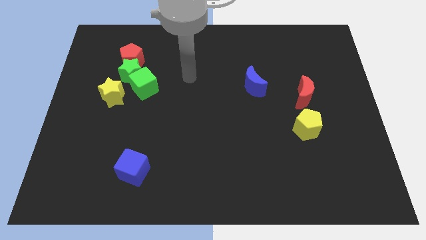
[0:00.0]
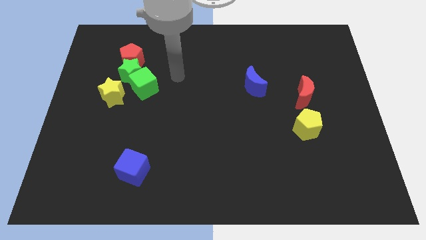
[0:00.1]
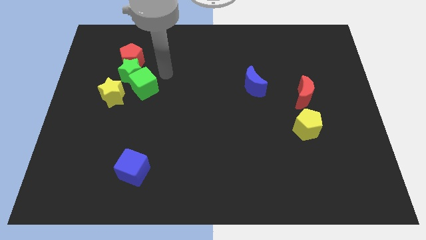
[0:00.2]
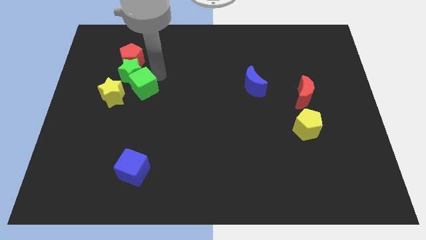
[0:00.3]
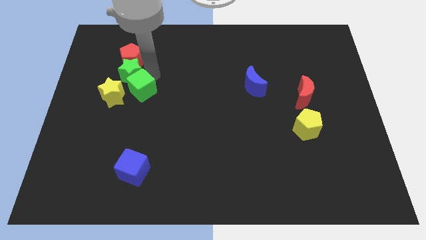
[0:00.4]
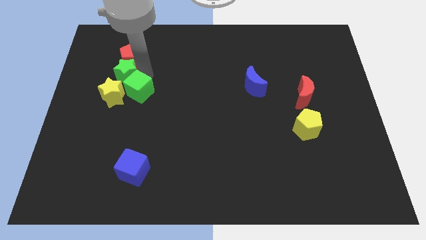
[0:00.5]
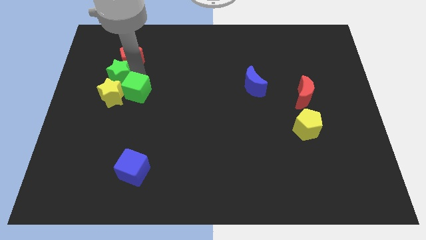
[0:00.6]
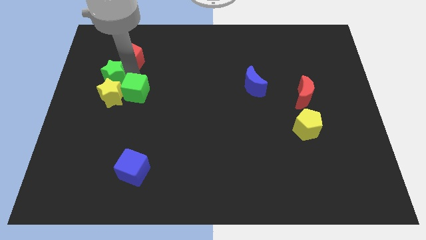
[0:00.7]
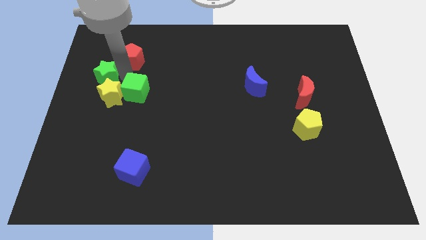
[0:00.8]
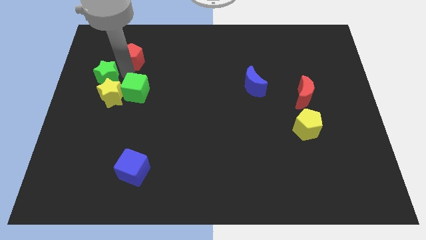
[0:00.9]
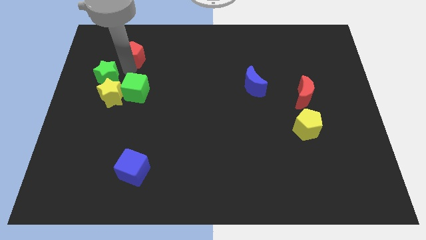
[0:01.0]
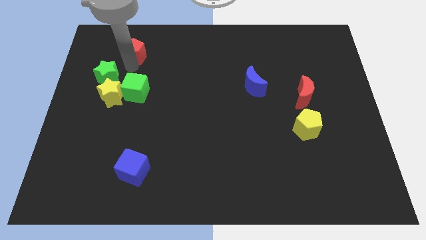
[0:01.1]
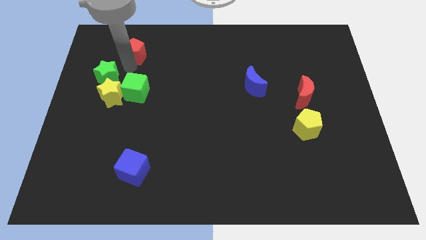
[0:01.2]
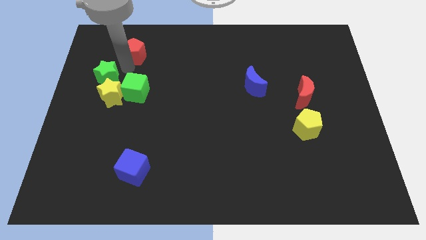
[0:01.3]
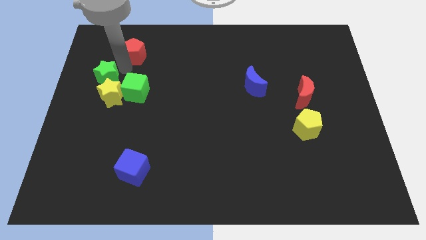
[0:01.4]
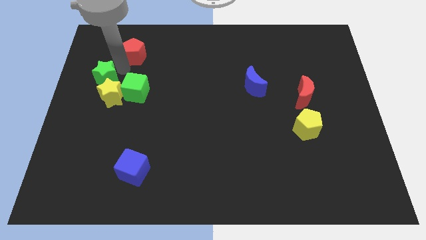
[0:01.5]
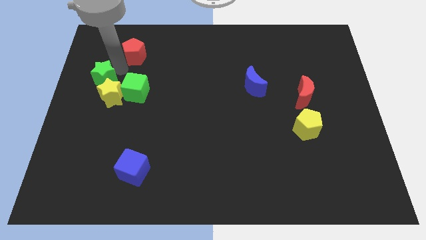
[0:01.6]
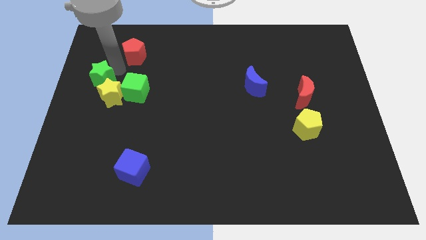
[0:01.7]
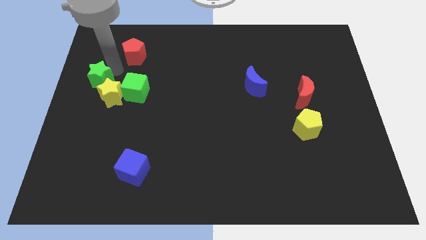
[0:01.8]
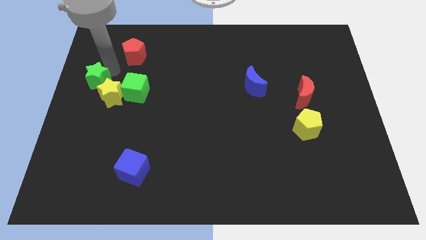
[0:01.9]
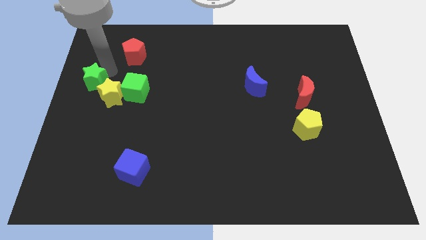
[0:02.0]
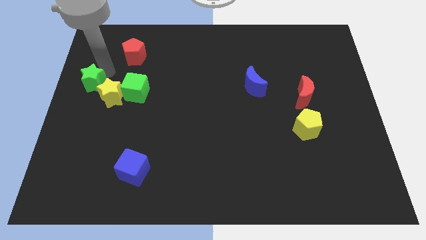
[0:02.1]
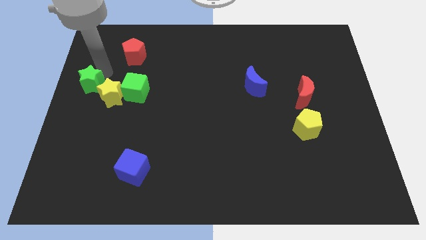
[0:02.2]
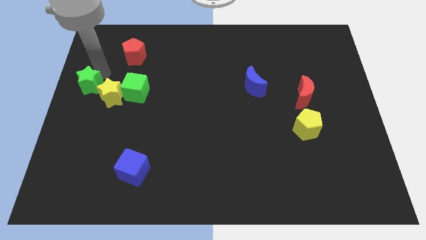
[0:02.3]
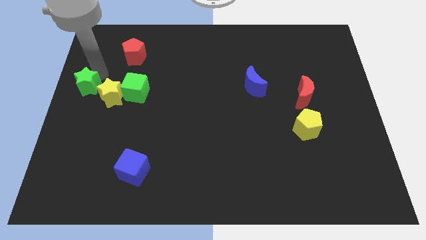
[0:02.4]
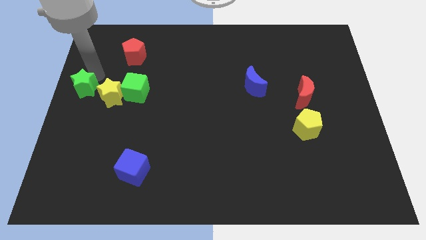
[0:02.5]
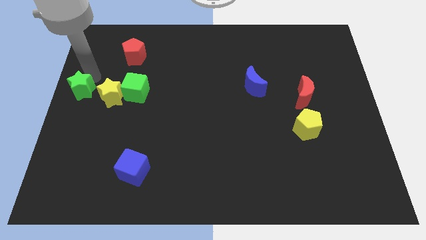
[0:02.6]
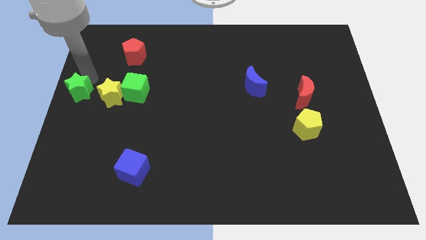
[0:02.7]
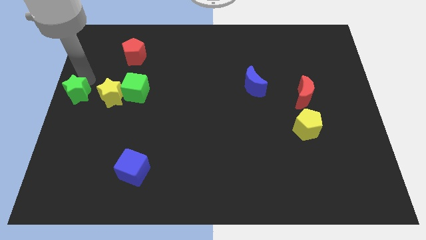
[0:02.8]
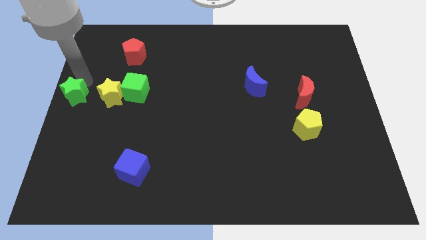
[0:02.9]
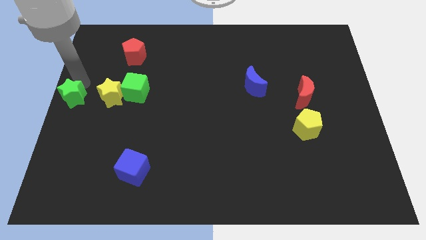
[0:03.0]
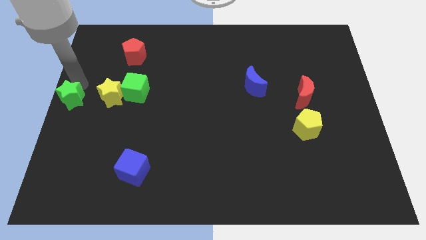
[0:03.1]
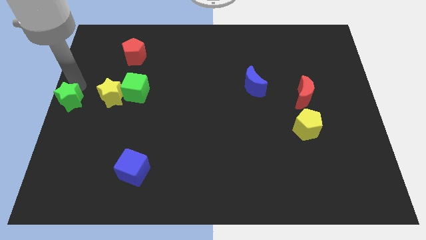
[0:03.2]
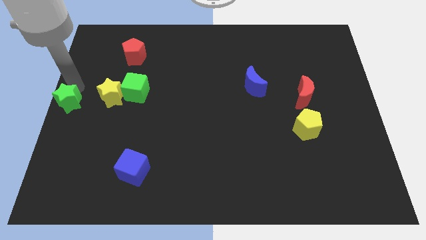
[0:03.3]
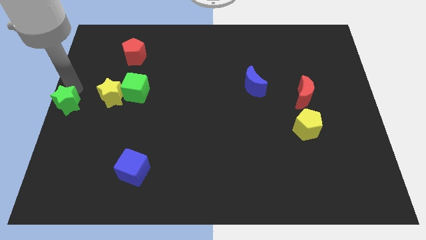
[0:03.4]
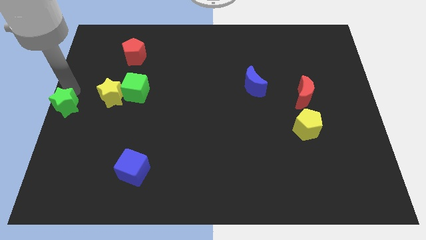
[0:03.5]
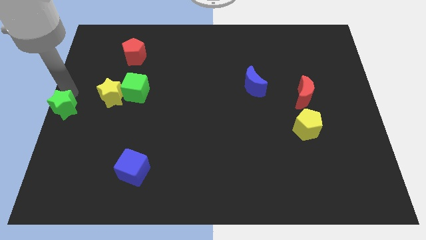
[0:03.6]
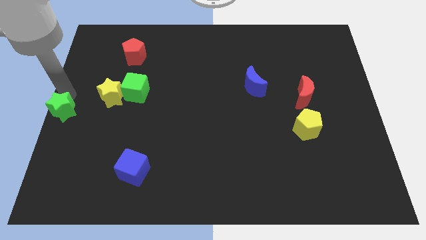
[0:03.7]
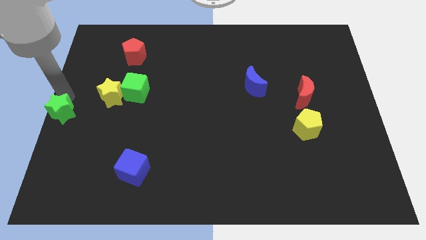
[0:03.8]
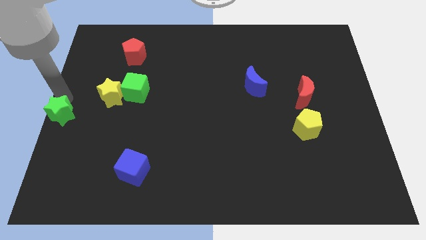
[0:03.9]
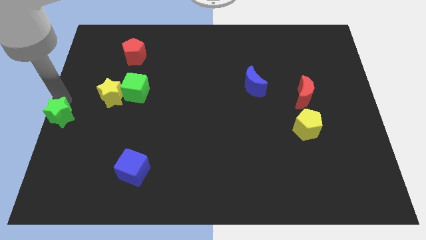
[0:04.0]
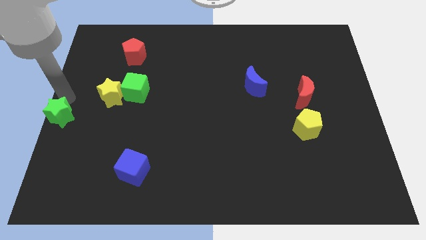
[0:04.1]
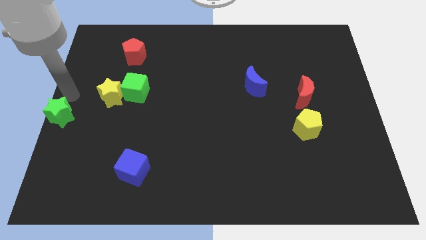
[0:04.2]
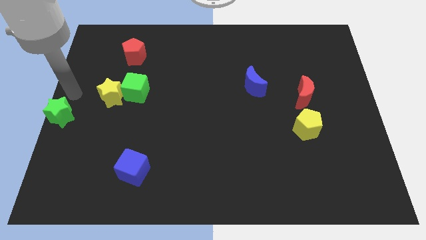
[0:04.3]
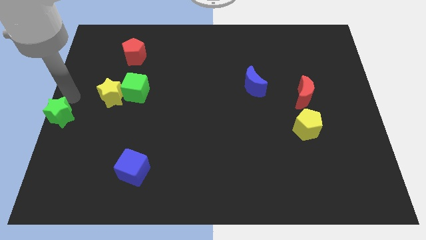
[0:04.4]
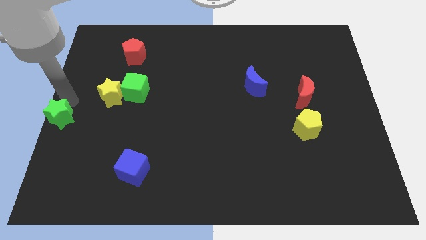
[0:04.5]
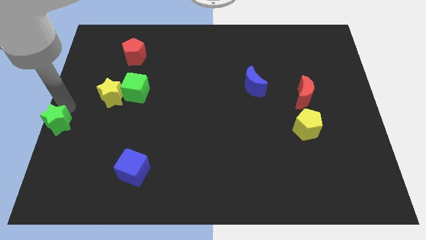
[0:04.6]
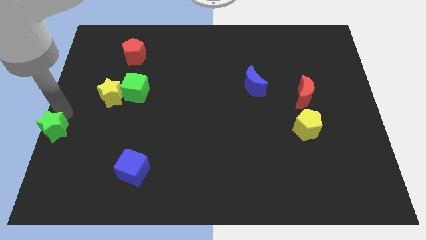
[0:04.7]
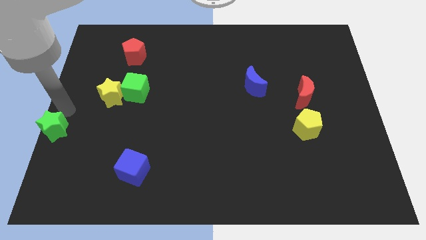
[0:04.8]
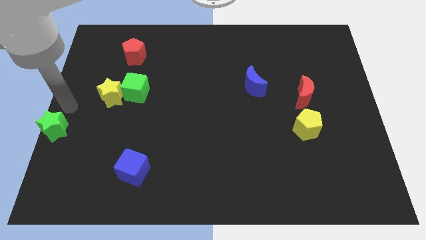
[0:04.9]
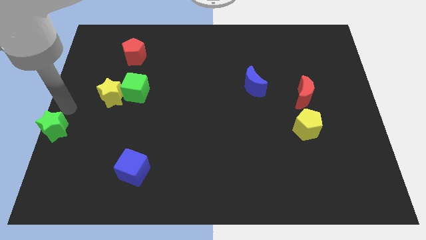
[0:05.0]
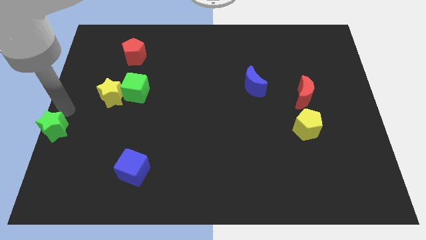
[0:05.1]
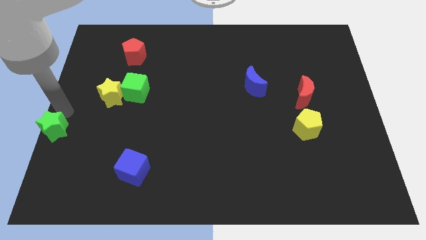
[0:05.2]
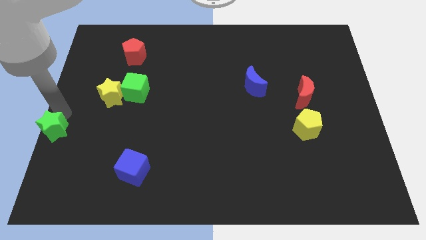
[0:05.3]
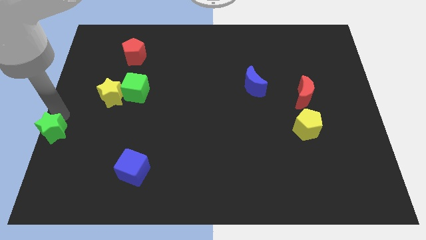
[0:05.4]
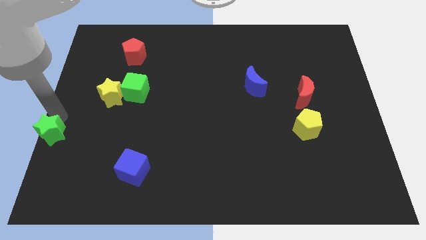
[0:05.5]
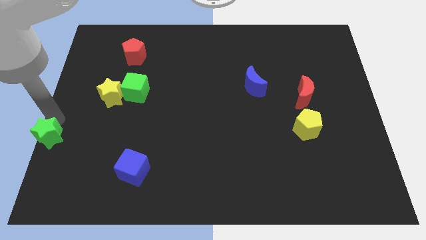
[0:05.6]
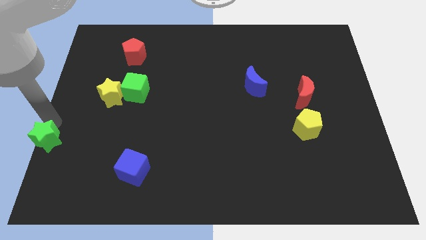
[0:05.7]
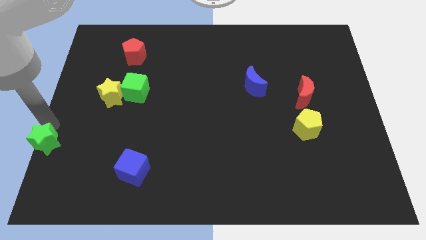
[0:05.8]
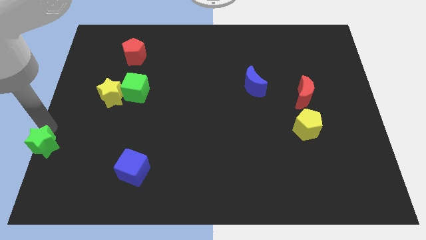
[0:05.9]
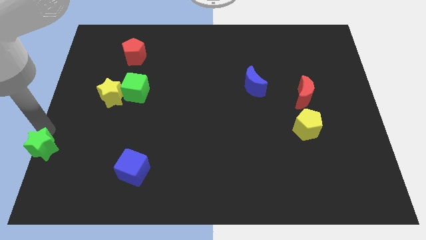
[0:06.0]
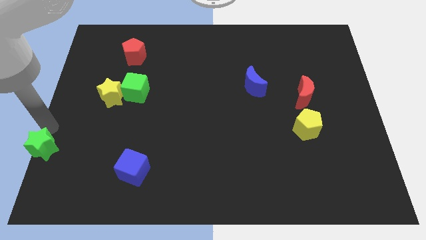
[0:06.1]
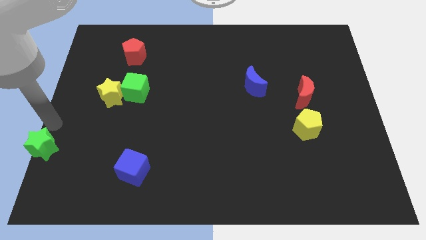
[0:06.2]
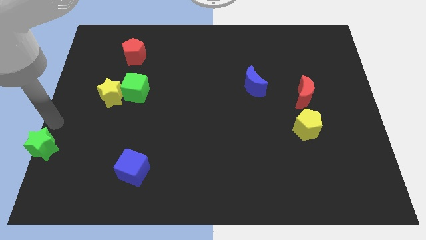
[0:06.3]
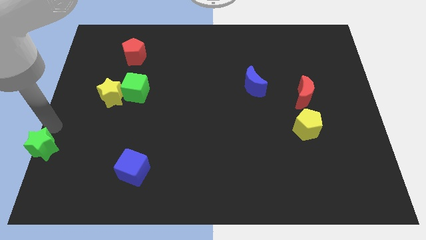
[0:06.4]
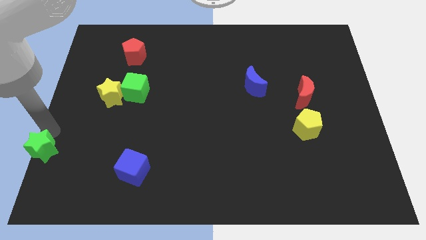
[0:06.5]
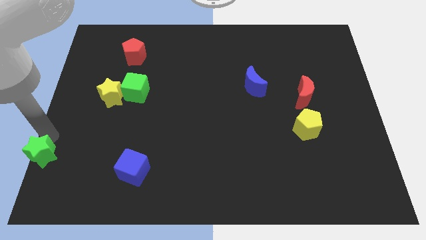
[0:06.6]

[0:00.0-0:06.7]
slide the green star to the bottom left of the board
